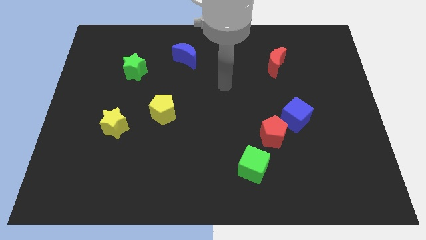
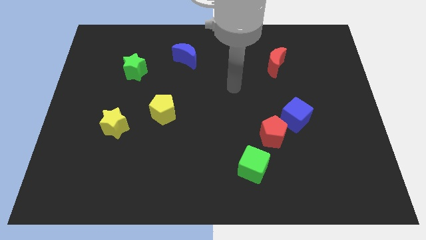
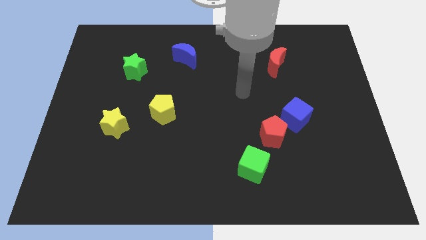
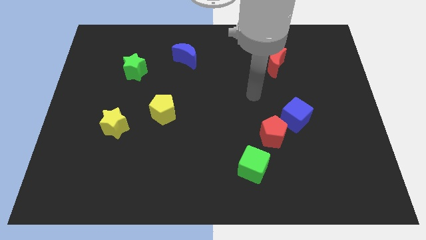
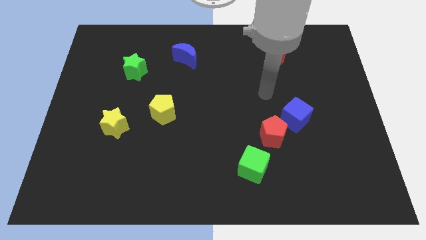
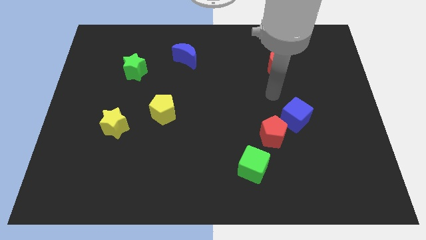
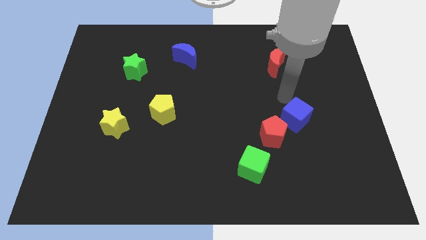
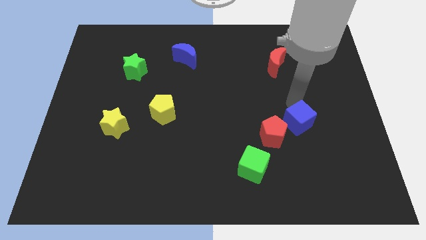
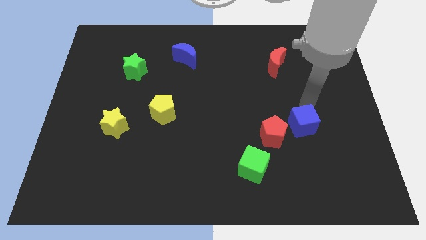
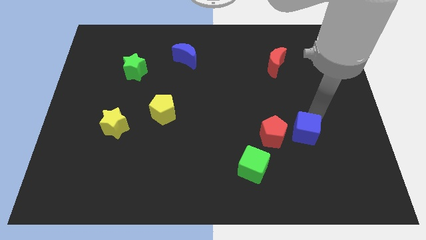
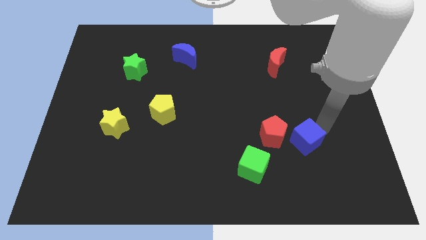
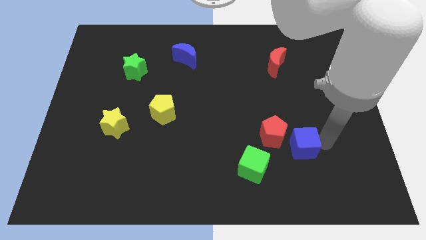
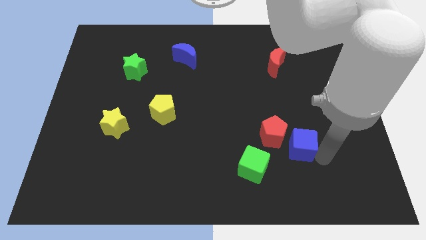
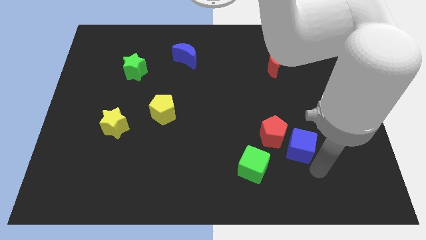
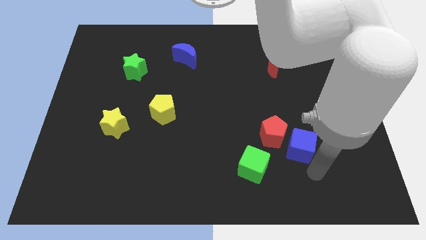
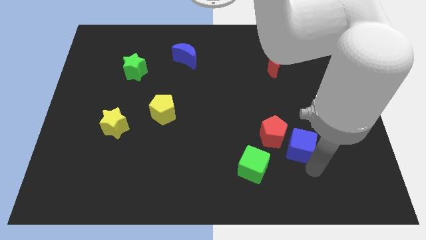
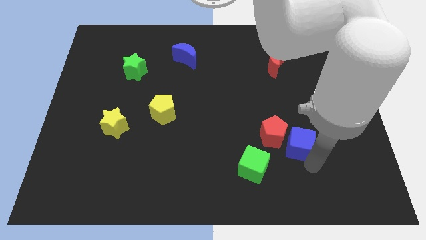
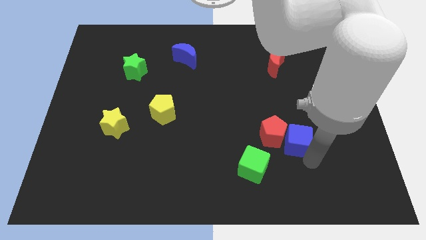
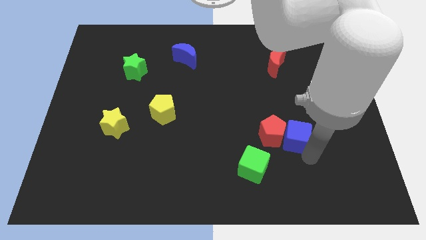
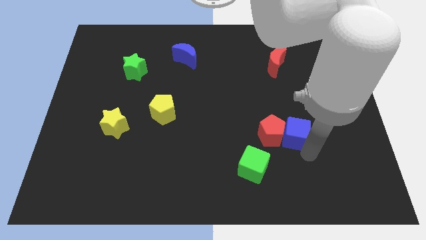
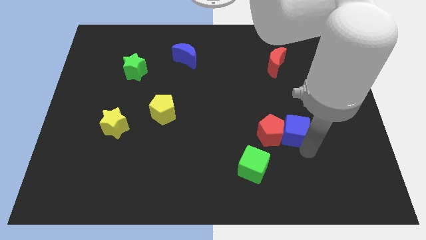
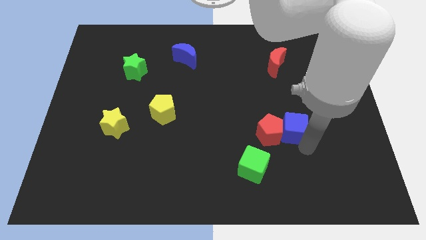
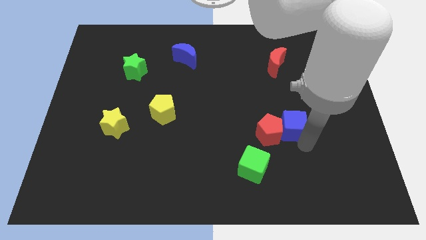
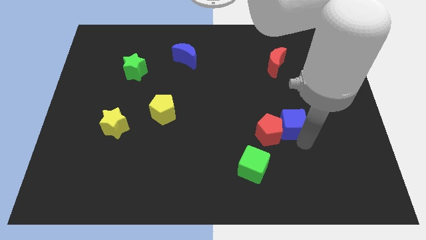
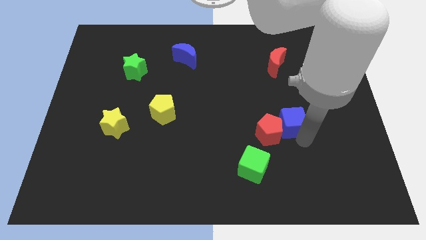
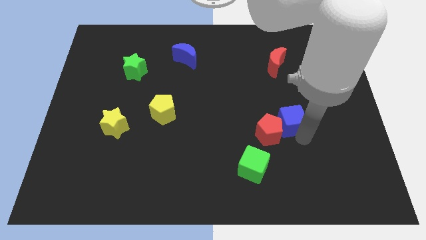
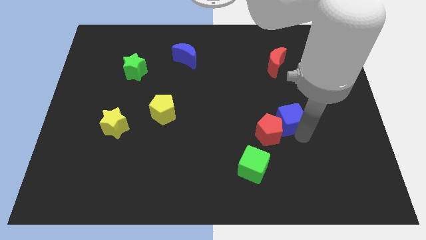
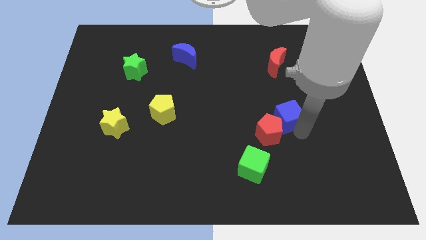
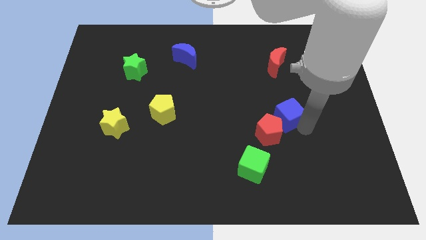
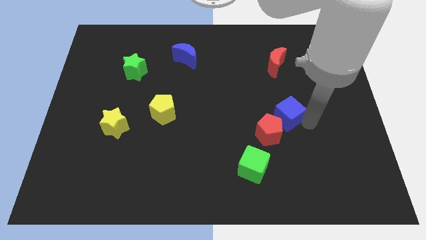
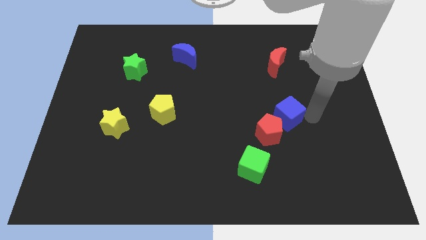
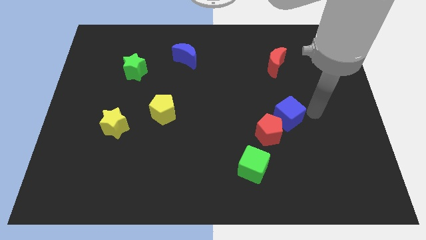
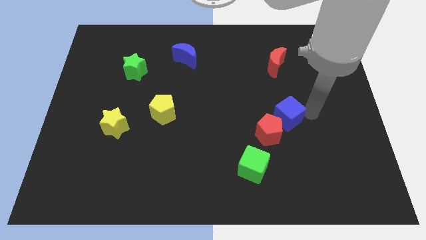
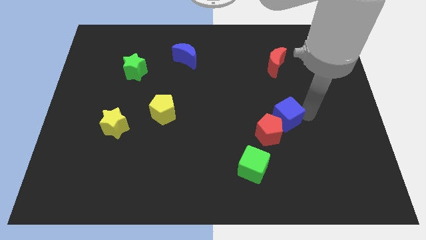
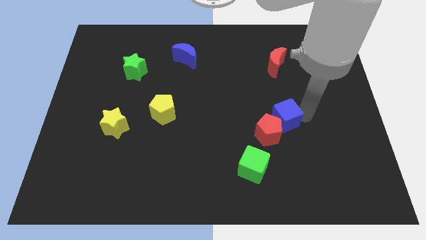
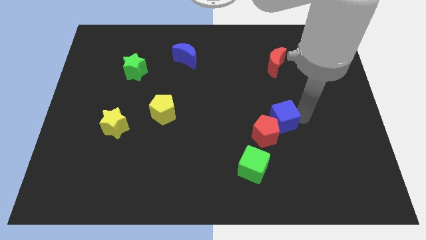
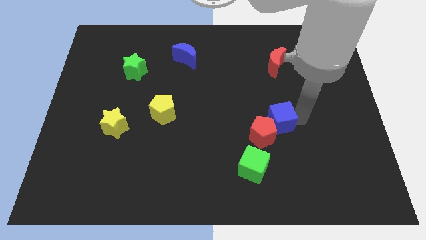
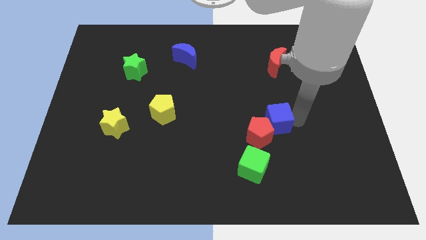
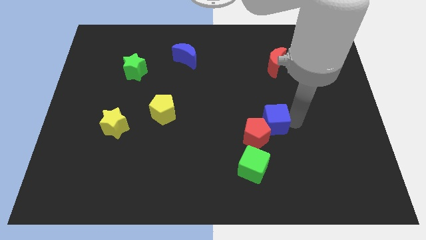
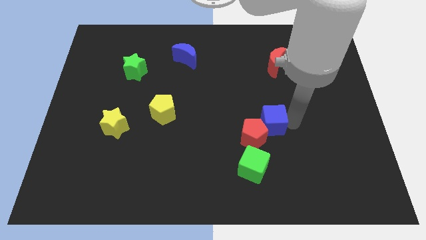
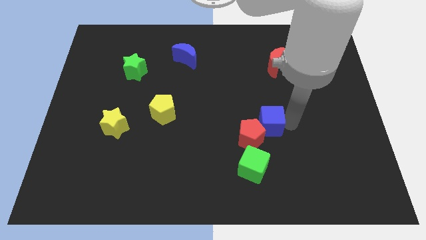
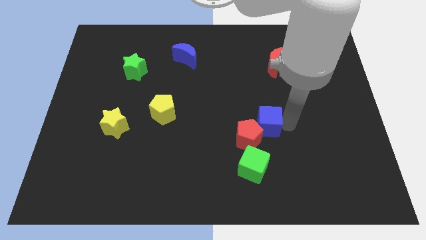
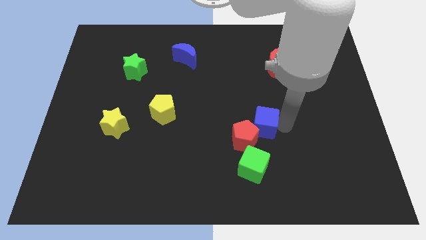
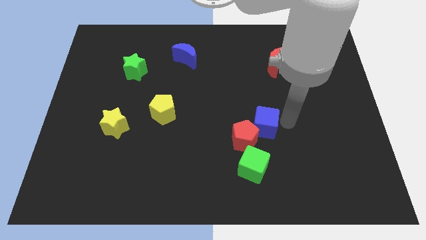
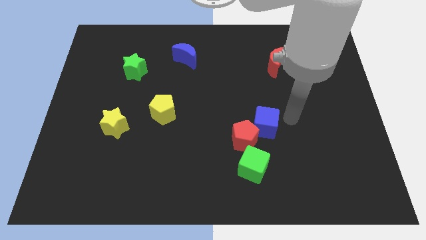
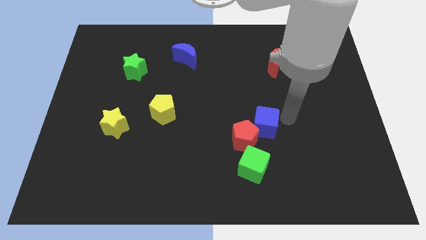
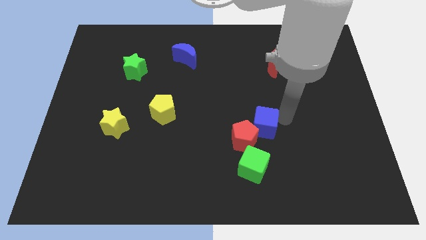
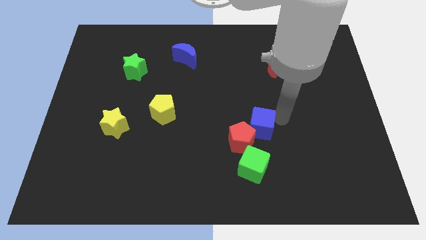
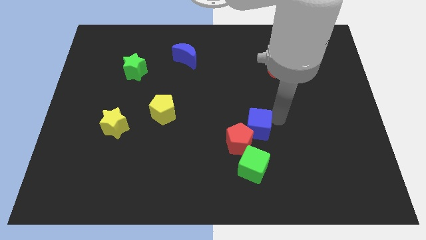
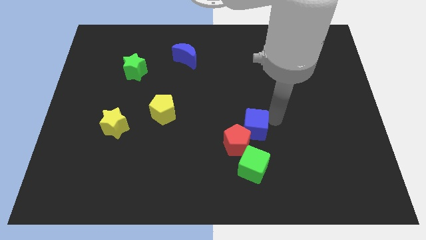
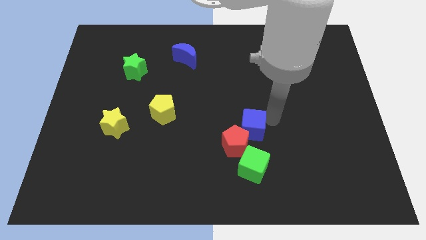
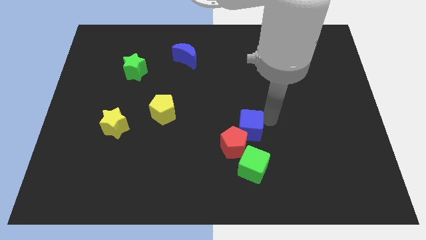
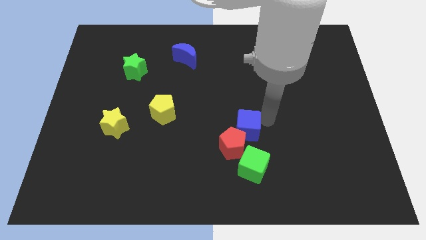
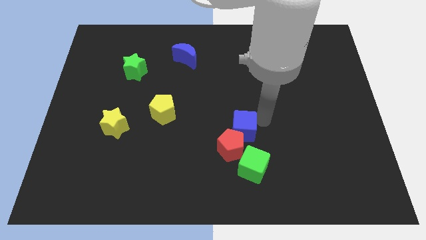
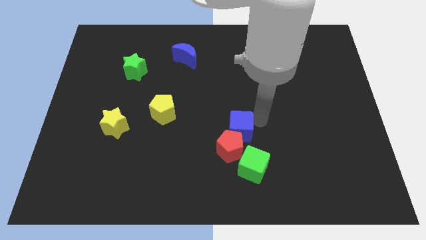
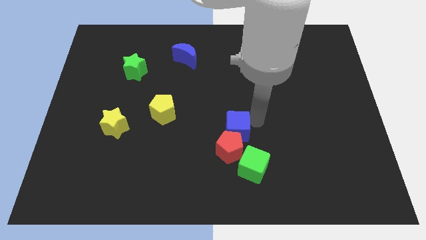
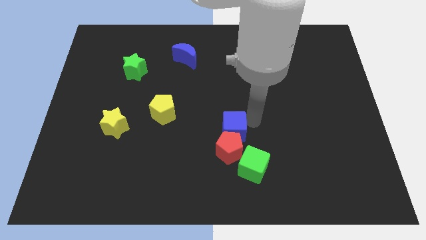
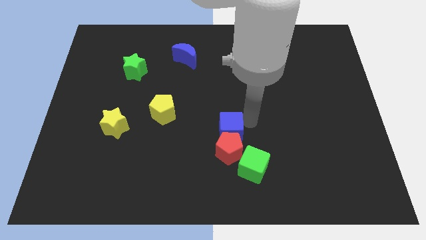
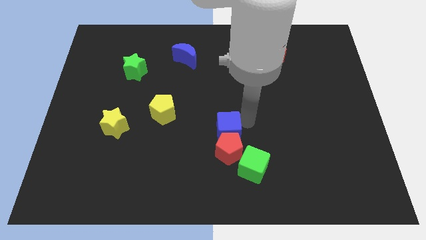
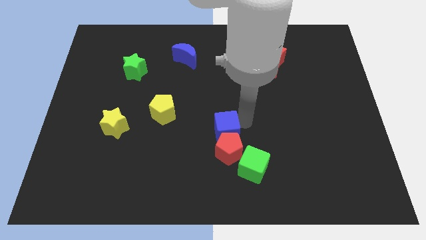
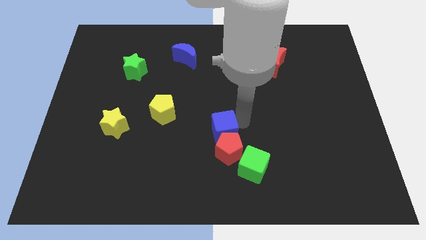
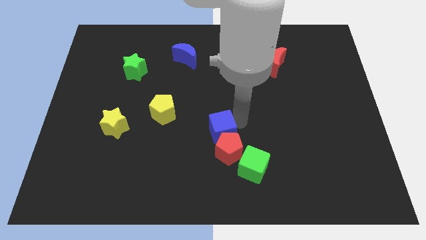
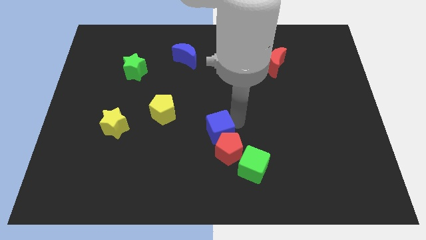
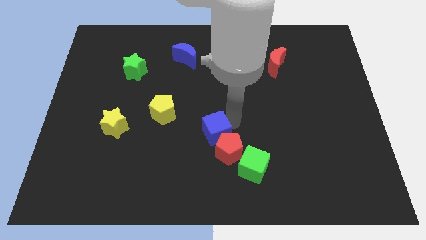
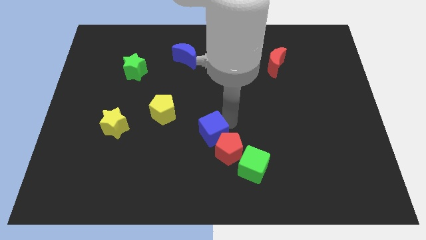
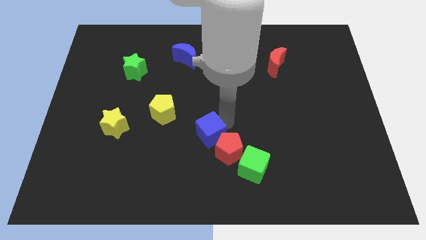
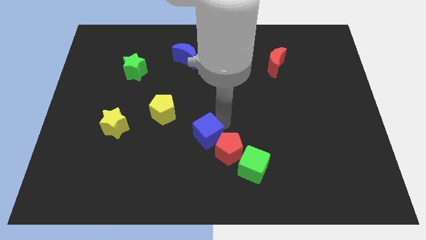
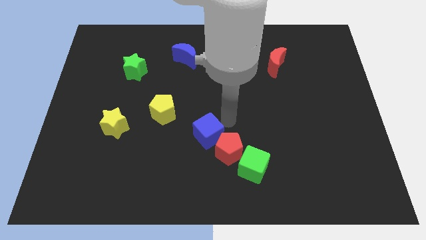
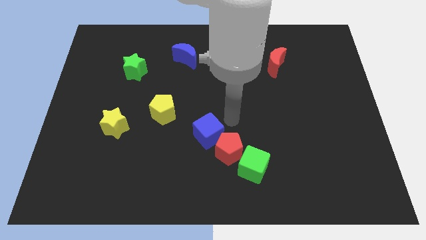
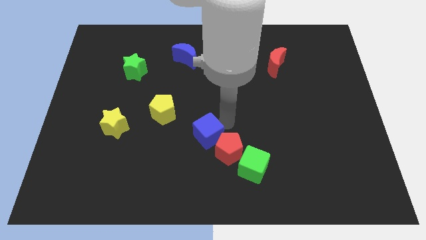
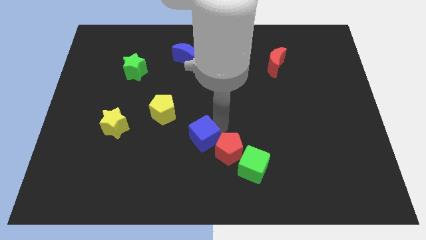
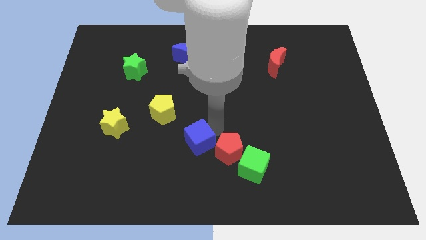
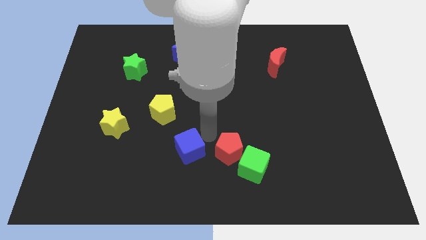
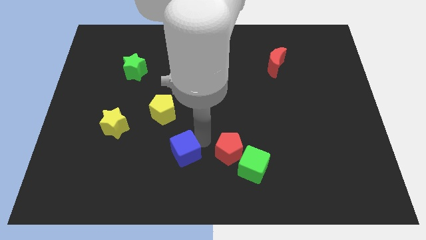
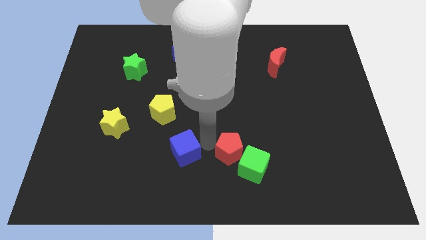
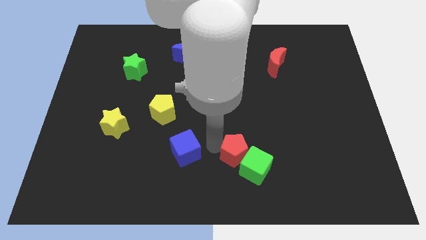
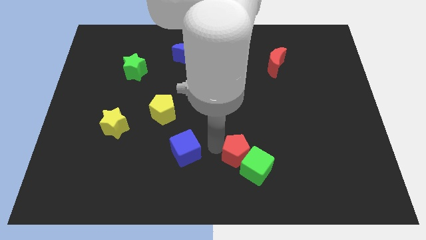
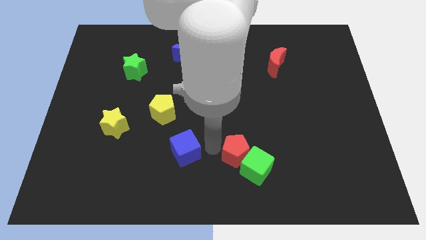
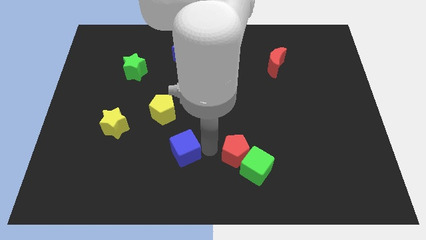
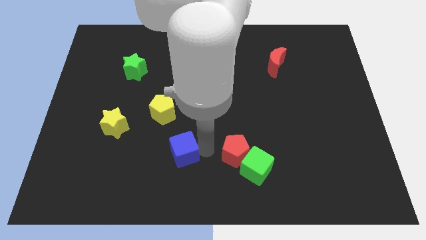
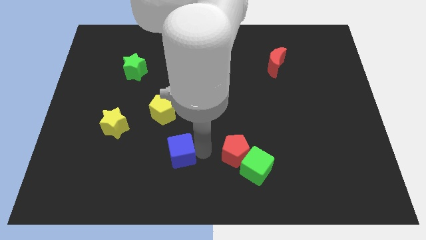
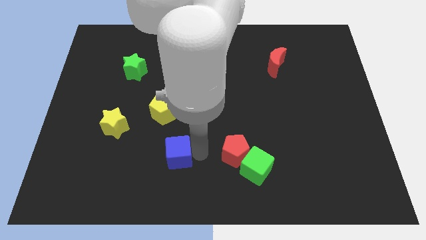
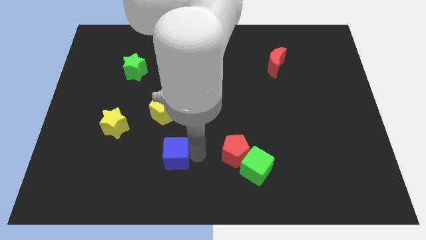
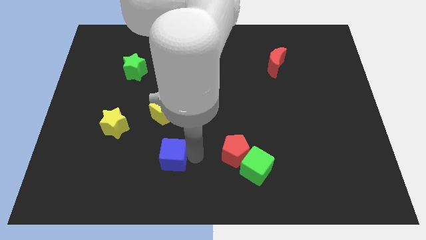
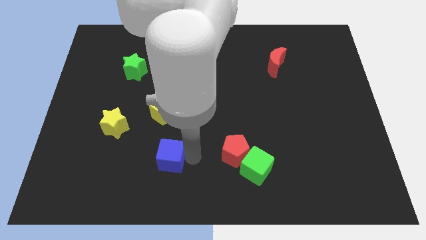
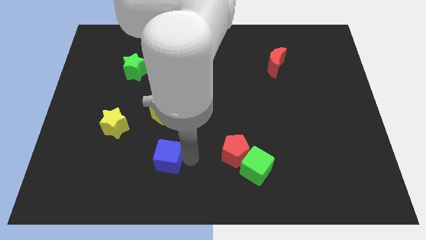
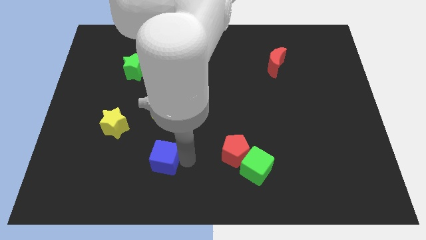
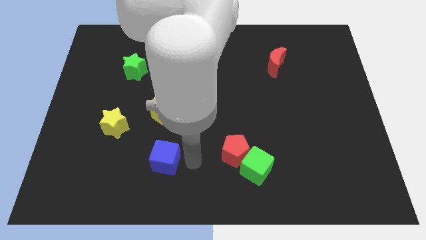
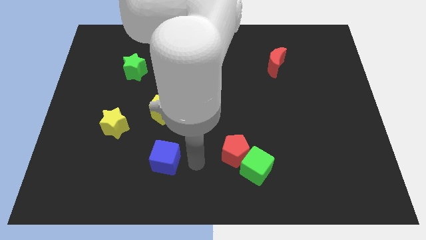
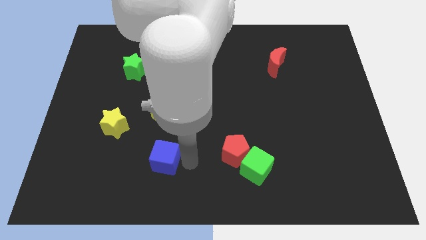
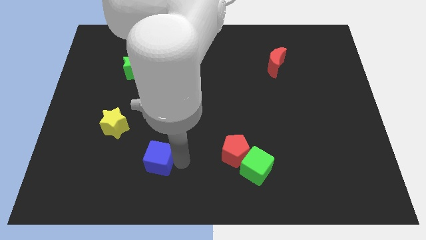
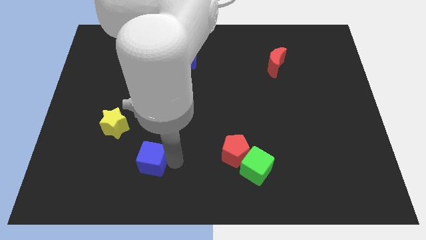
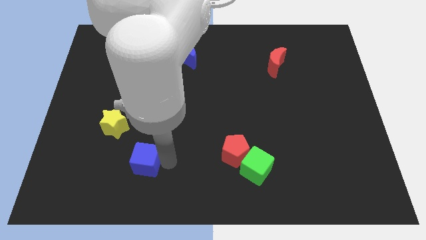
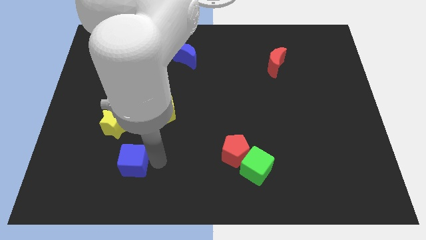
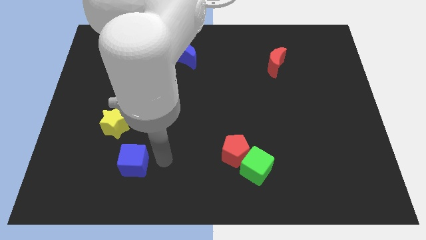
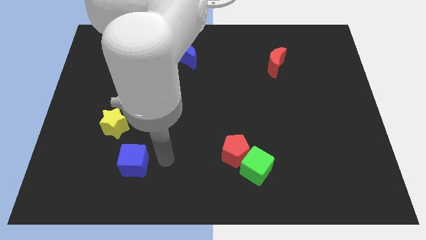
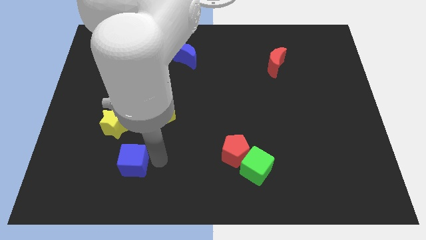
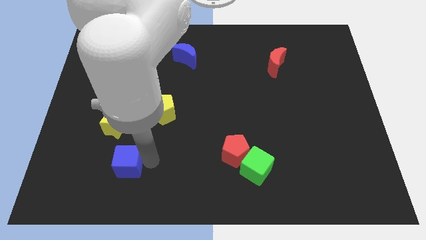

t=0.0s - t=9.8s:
put the blue cube below the yellow star
